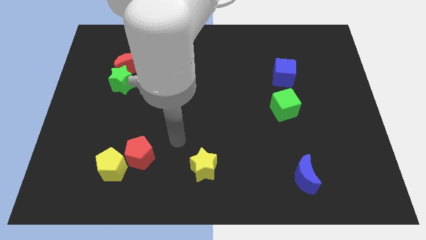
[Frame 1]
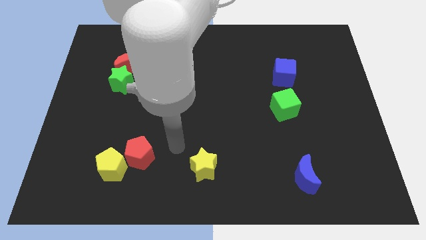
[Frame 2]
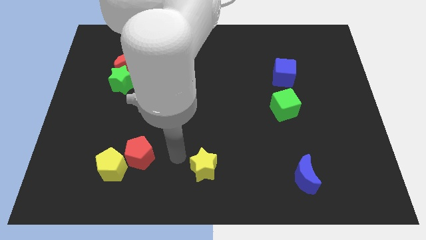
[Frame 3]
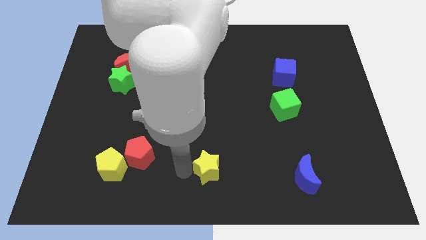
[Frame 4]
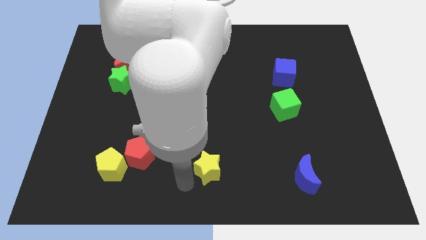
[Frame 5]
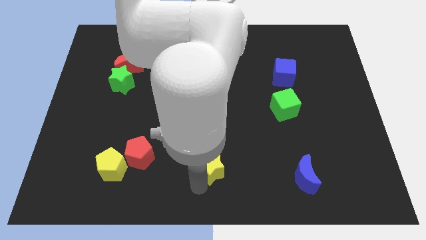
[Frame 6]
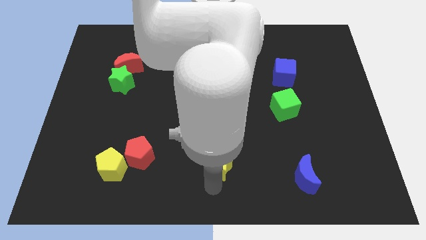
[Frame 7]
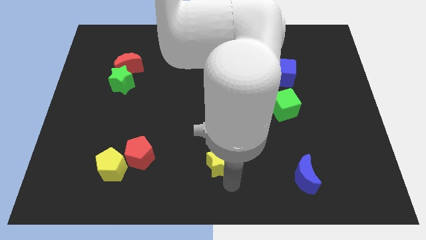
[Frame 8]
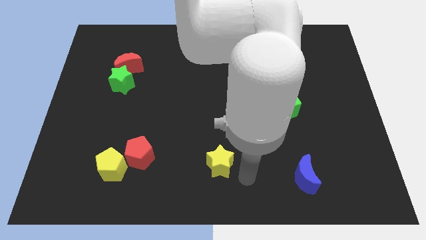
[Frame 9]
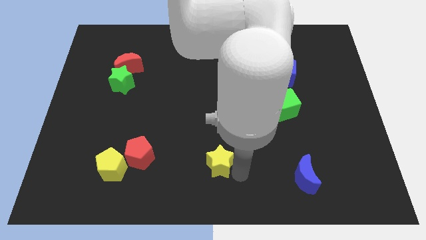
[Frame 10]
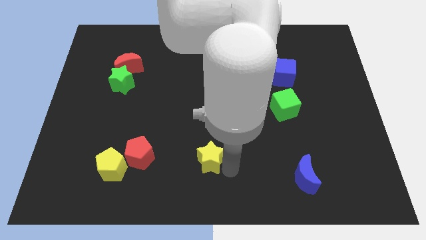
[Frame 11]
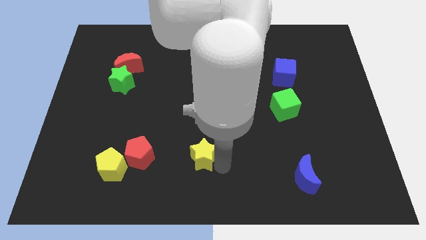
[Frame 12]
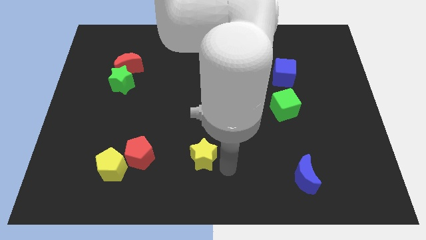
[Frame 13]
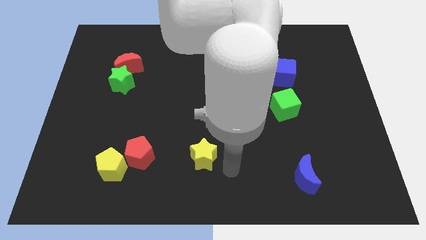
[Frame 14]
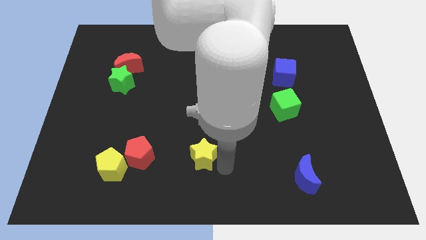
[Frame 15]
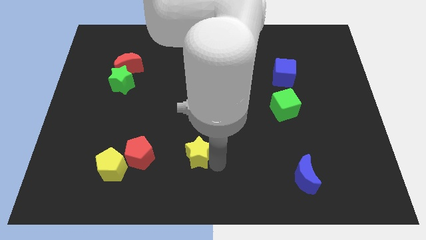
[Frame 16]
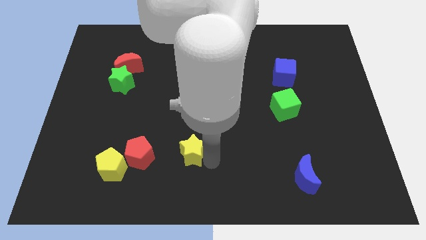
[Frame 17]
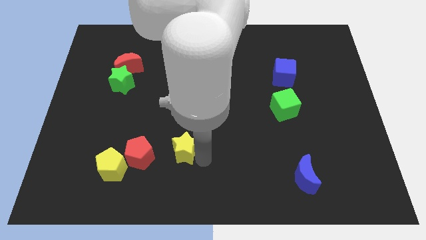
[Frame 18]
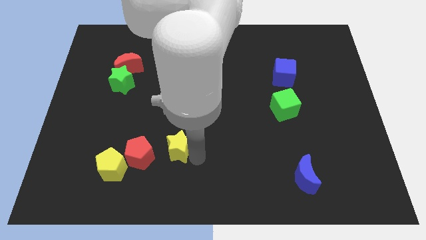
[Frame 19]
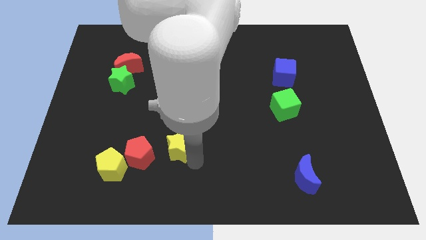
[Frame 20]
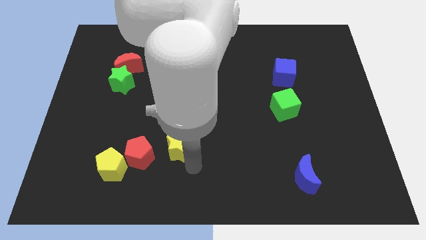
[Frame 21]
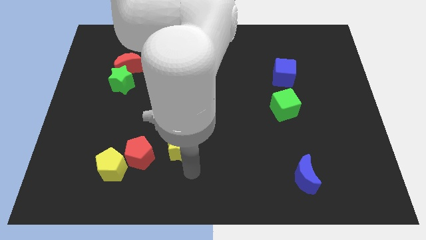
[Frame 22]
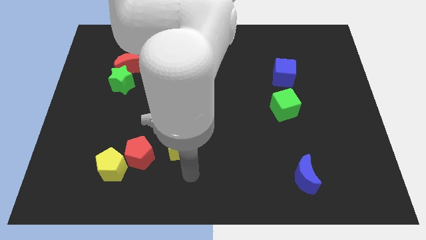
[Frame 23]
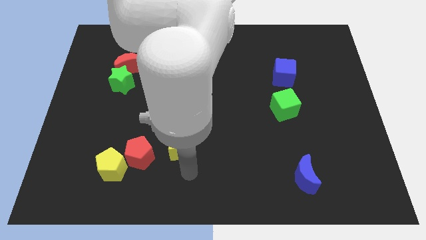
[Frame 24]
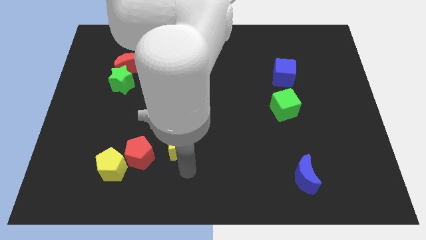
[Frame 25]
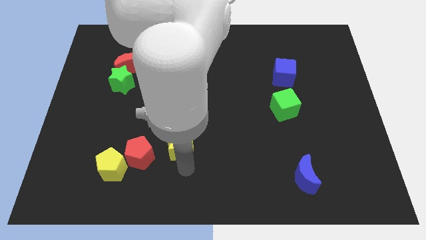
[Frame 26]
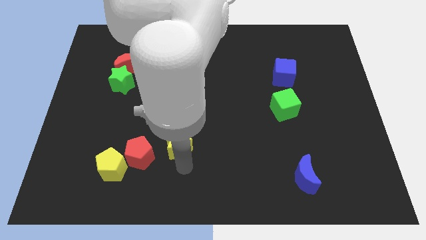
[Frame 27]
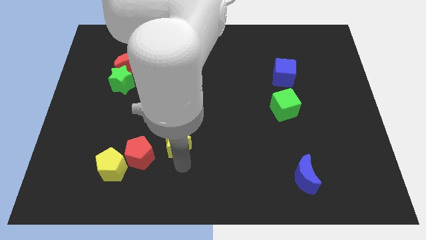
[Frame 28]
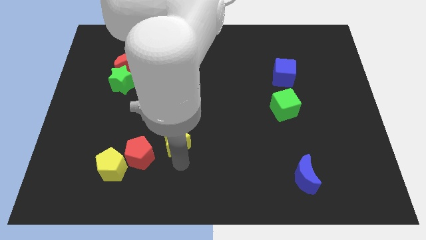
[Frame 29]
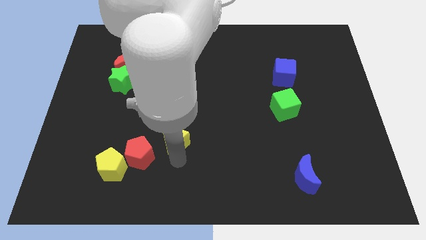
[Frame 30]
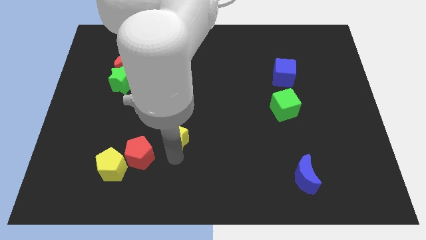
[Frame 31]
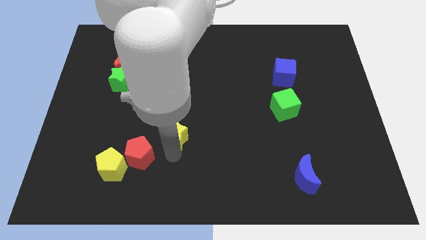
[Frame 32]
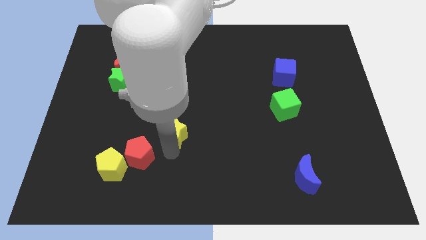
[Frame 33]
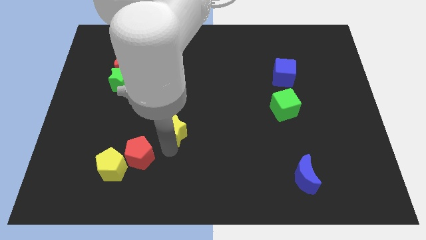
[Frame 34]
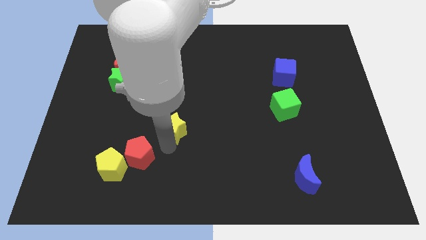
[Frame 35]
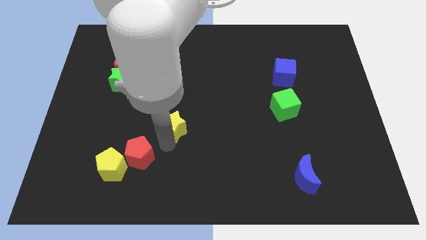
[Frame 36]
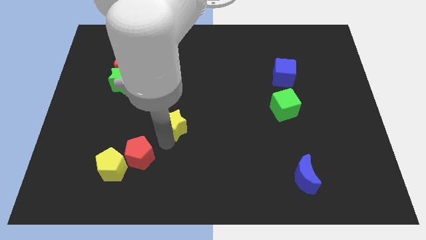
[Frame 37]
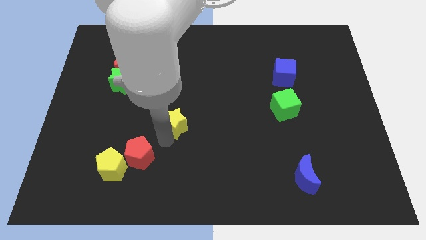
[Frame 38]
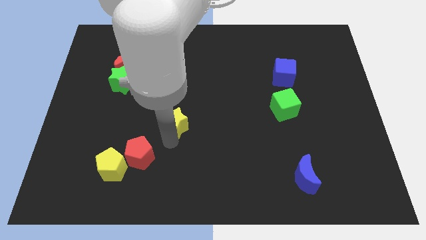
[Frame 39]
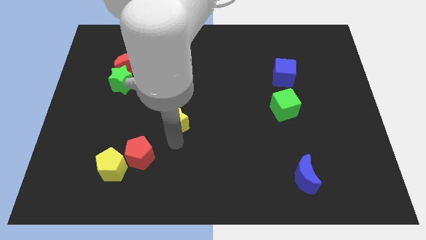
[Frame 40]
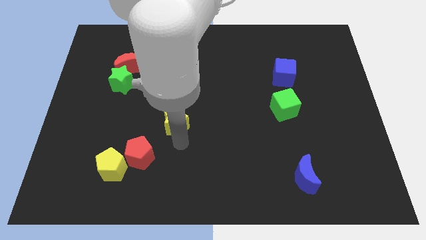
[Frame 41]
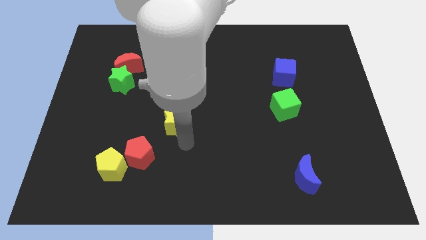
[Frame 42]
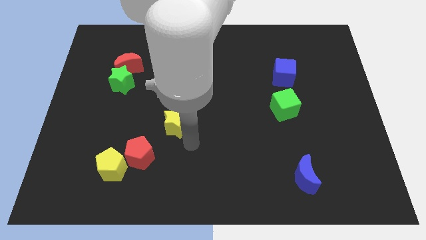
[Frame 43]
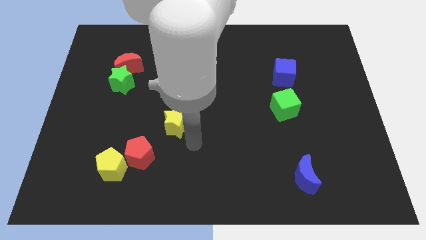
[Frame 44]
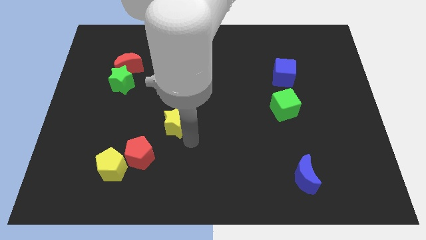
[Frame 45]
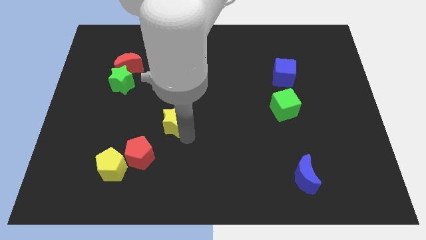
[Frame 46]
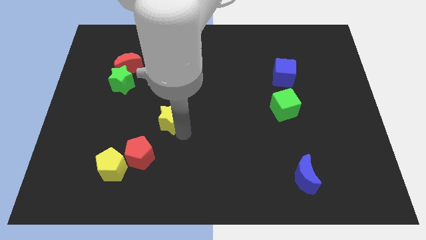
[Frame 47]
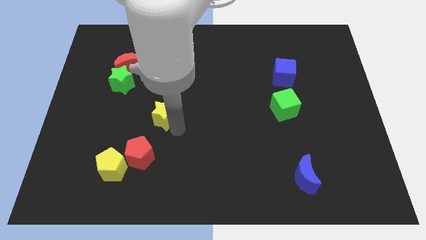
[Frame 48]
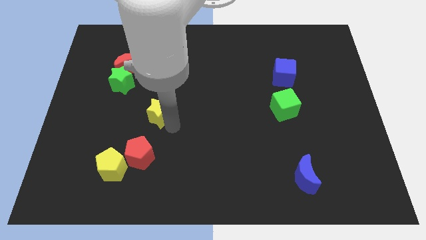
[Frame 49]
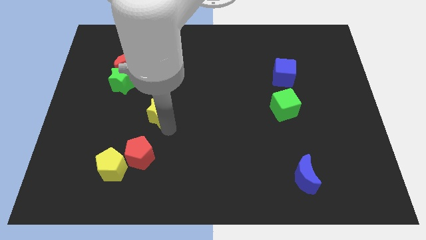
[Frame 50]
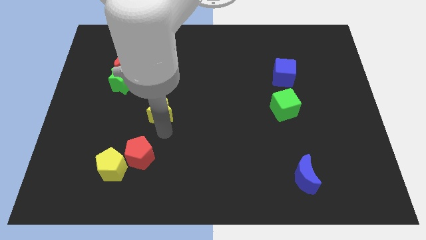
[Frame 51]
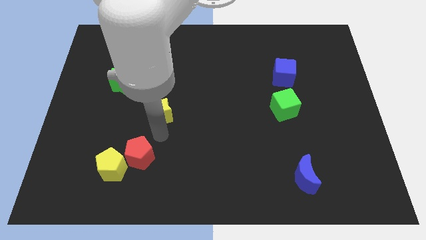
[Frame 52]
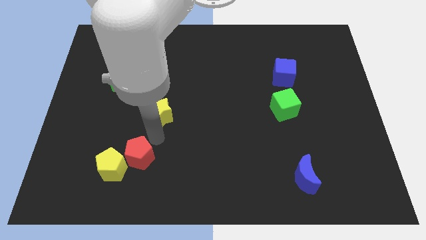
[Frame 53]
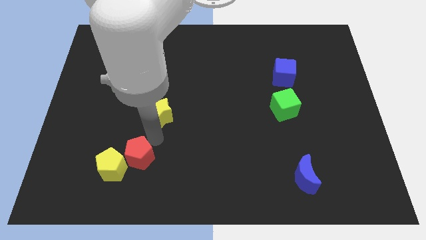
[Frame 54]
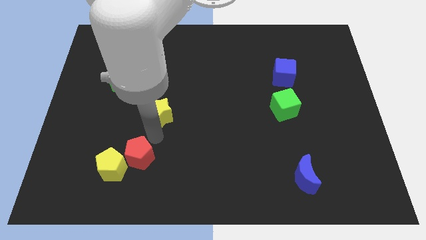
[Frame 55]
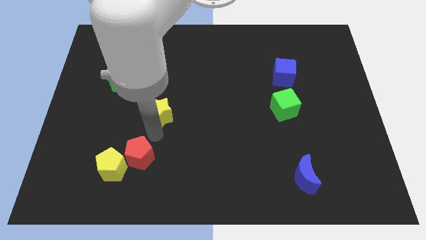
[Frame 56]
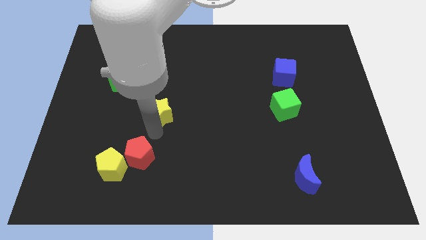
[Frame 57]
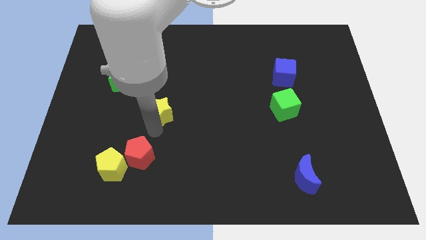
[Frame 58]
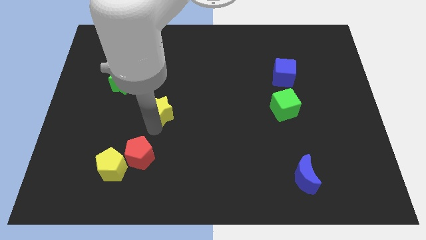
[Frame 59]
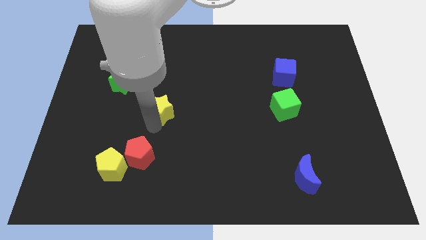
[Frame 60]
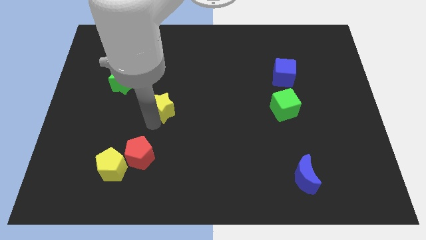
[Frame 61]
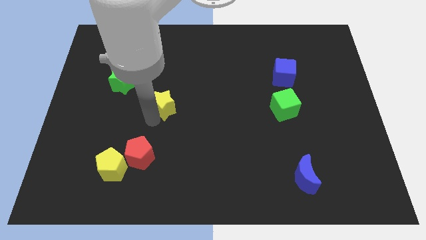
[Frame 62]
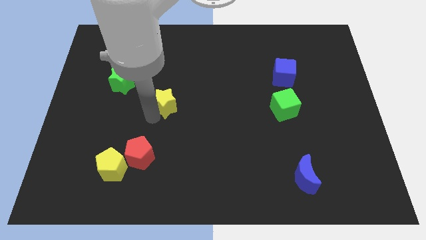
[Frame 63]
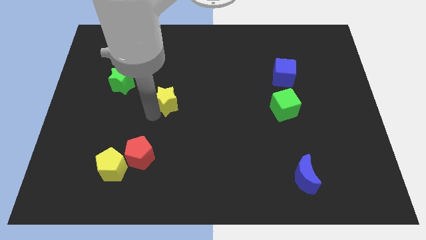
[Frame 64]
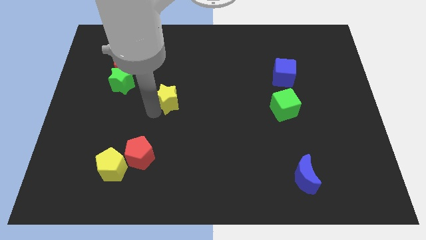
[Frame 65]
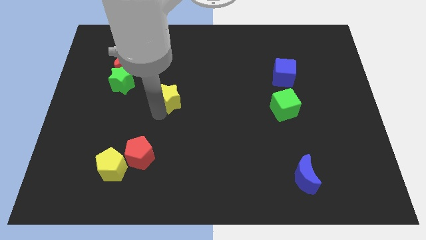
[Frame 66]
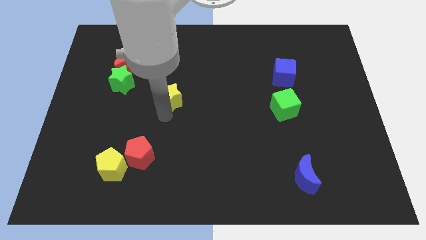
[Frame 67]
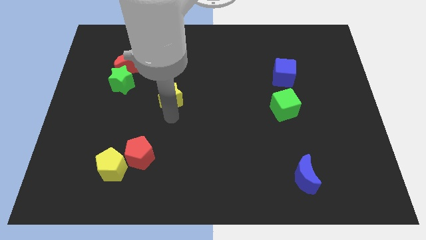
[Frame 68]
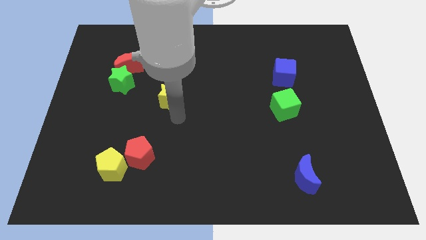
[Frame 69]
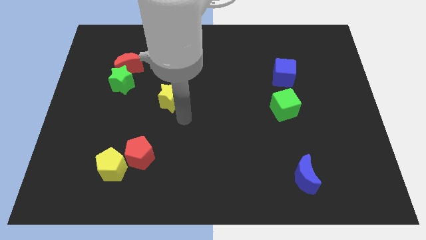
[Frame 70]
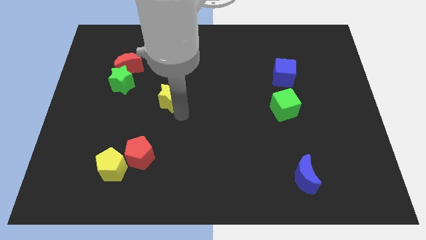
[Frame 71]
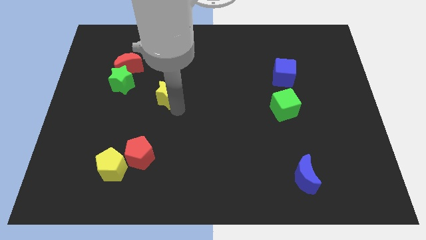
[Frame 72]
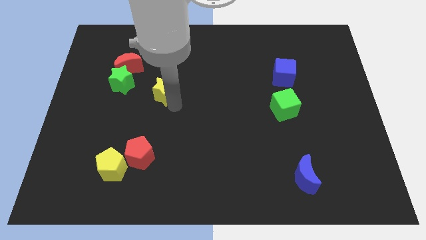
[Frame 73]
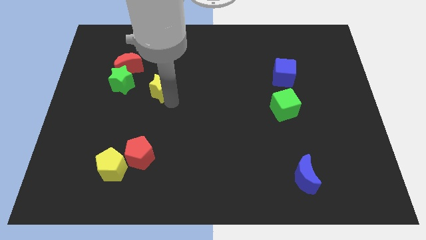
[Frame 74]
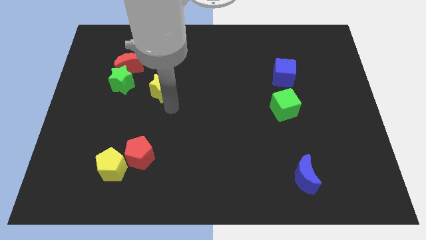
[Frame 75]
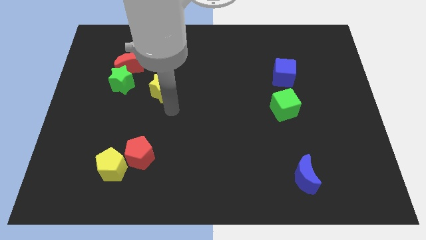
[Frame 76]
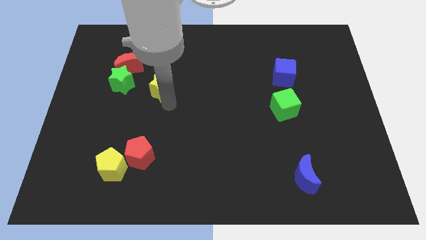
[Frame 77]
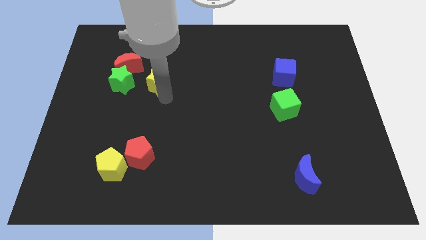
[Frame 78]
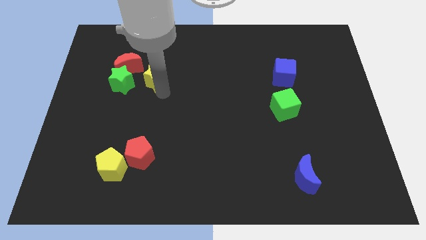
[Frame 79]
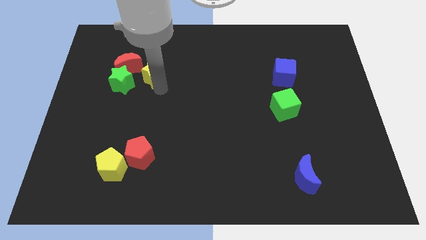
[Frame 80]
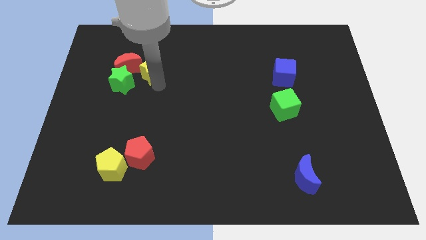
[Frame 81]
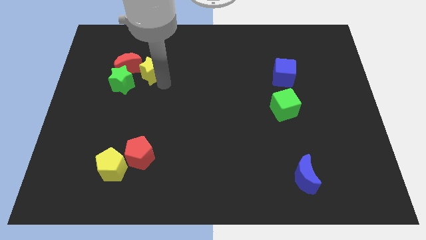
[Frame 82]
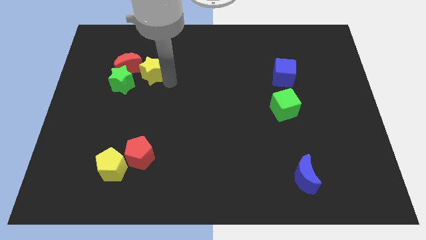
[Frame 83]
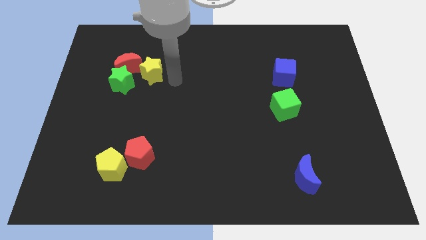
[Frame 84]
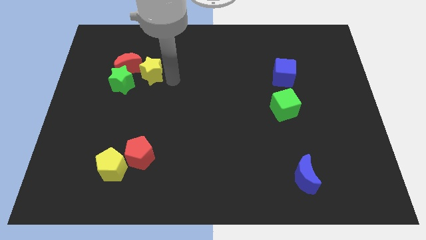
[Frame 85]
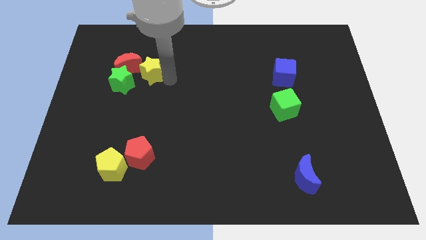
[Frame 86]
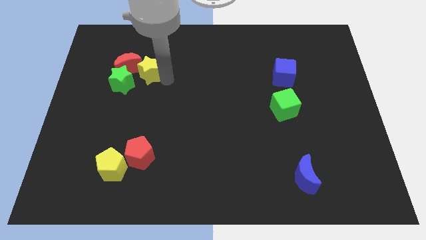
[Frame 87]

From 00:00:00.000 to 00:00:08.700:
push the yellow star towards the red moon
